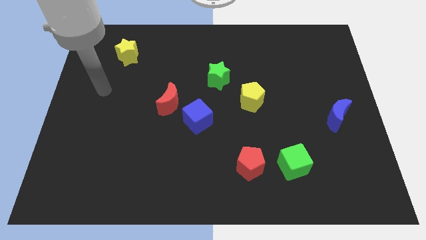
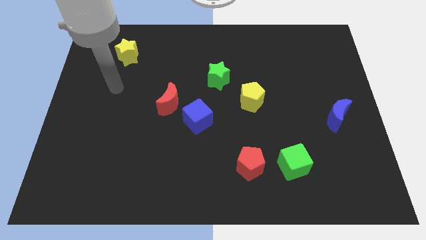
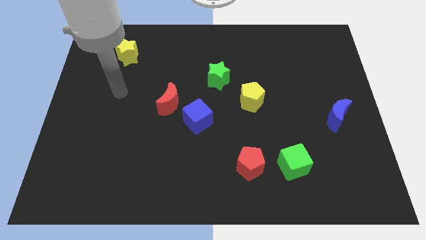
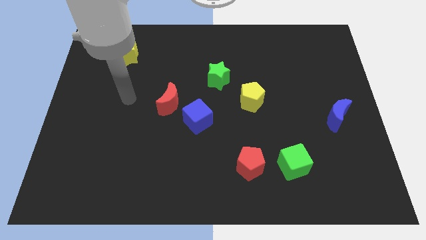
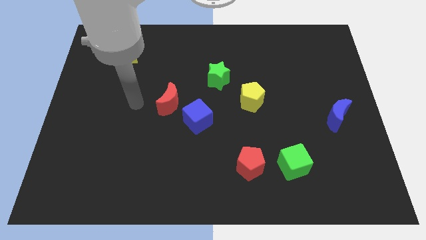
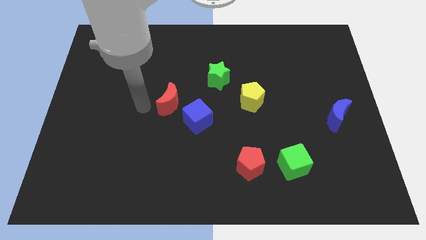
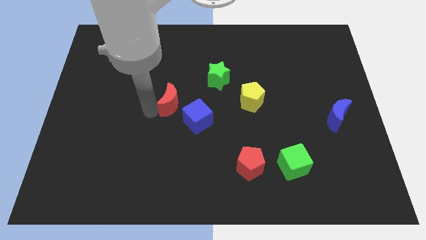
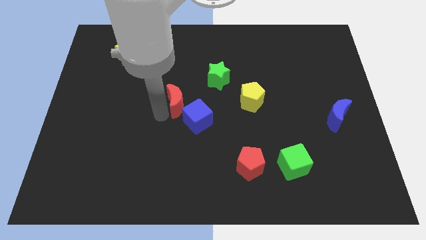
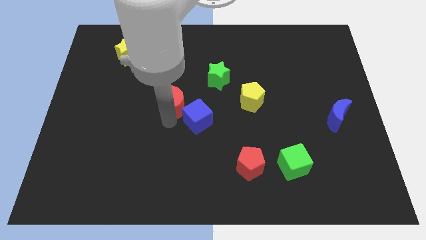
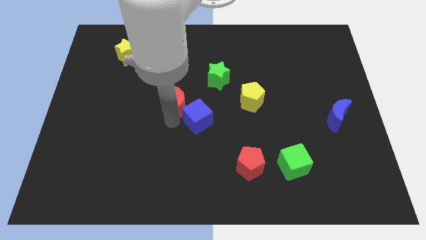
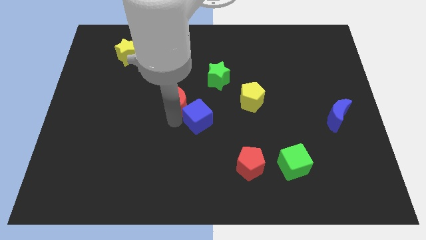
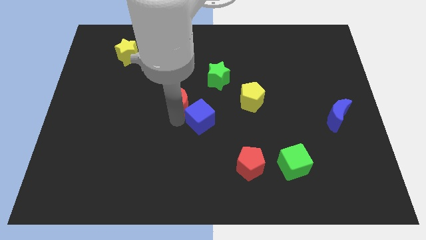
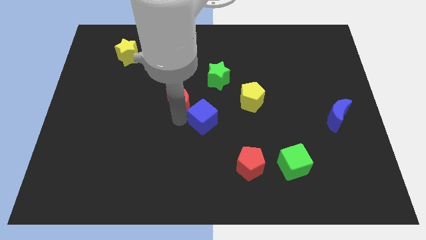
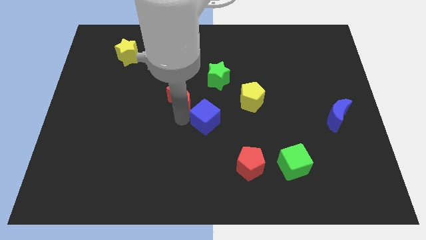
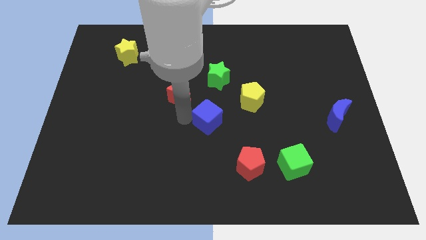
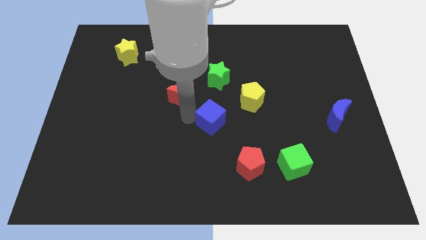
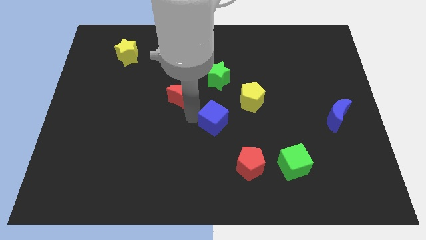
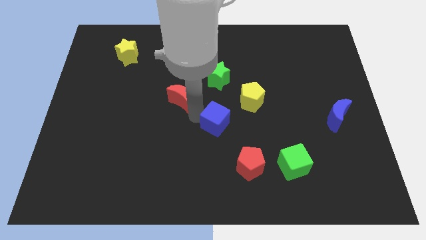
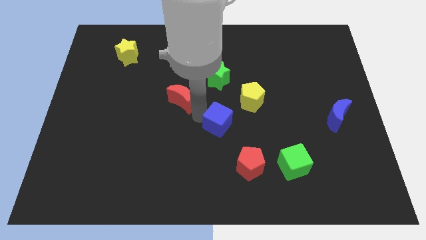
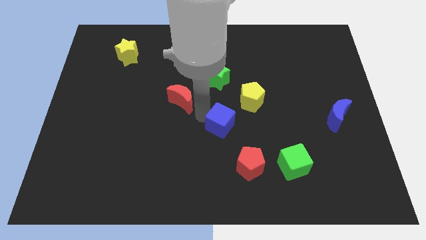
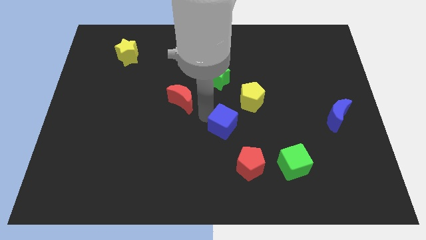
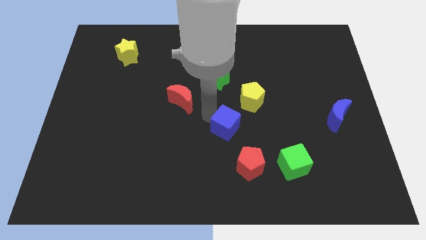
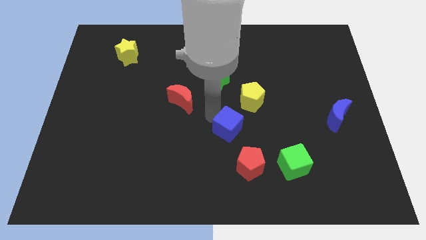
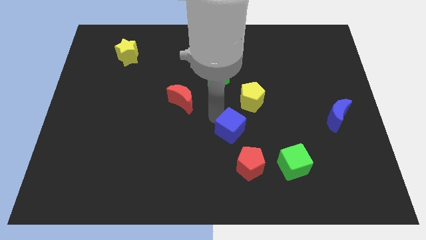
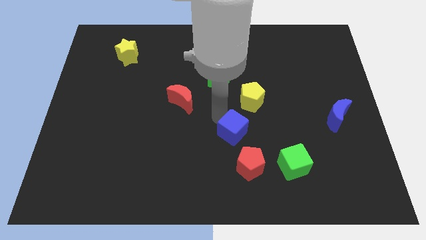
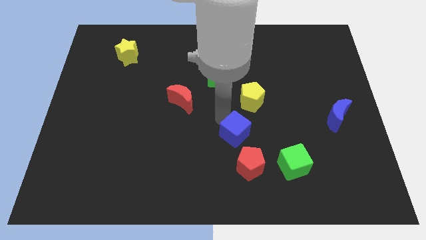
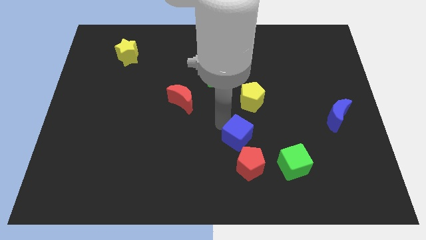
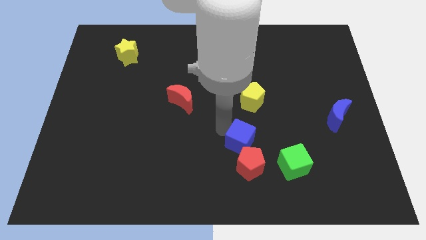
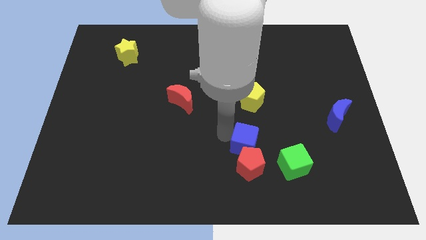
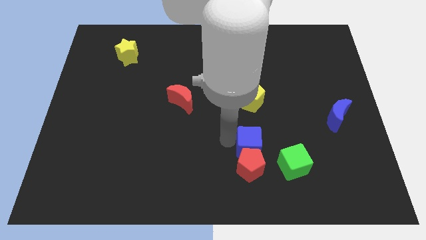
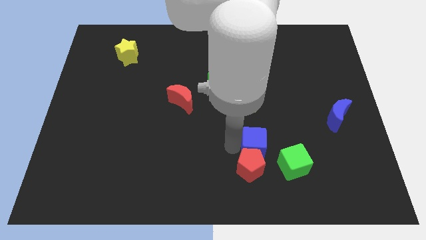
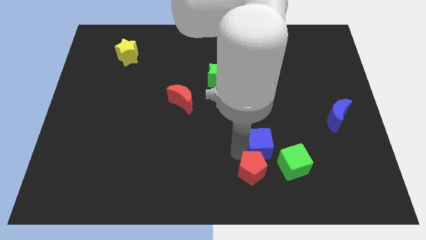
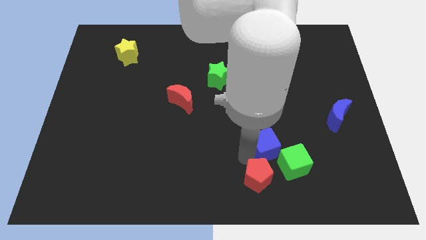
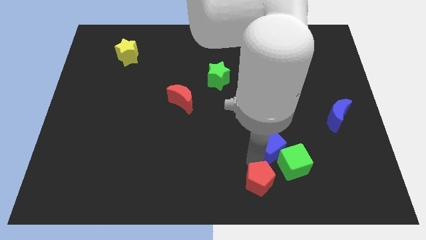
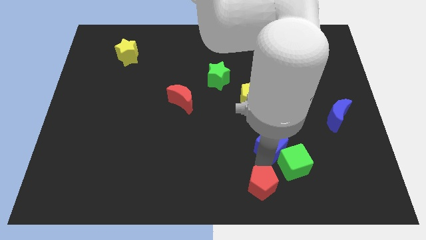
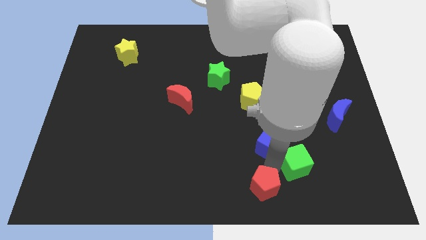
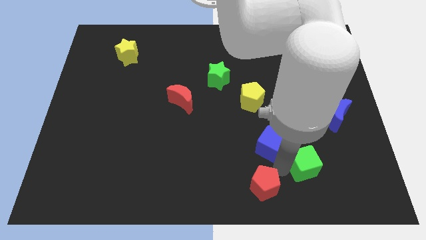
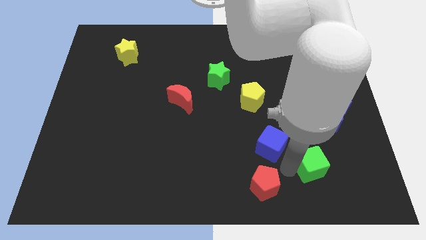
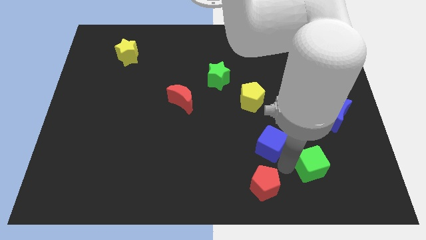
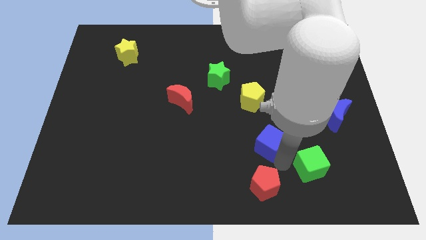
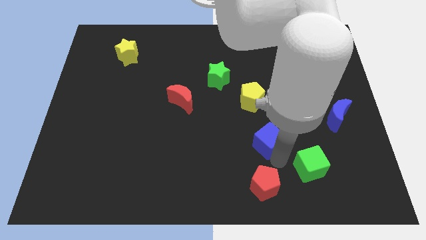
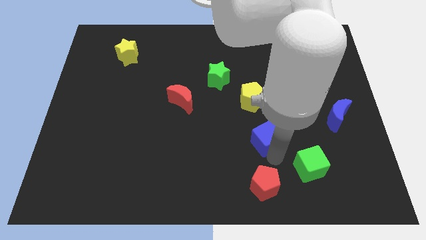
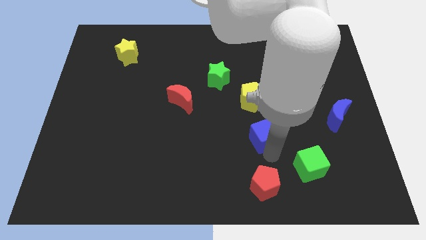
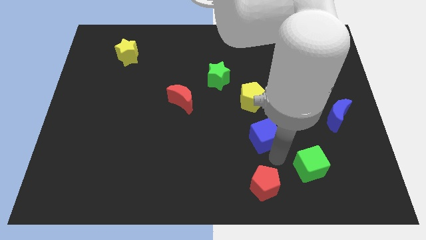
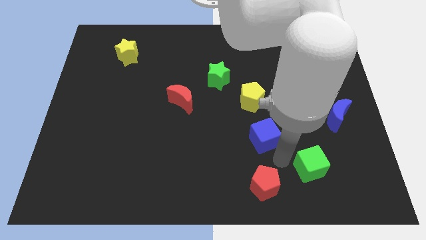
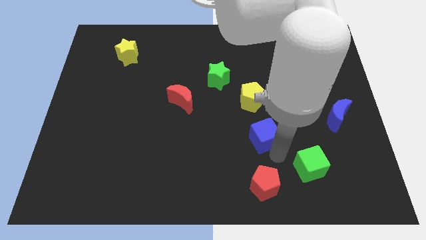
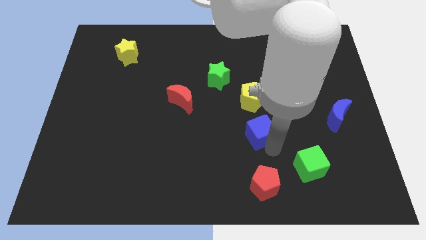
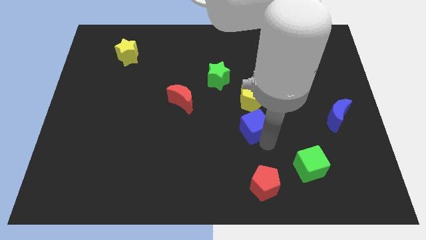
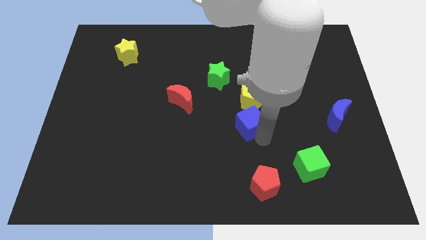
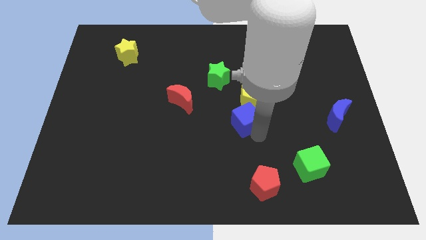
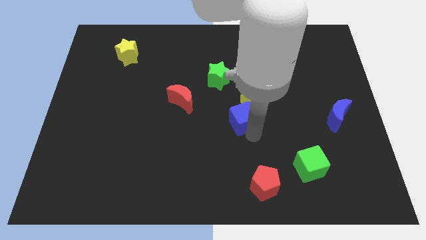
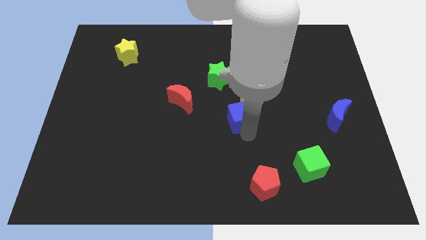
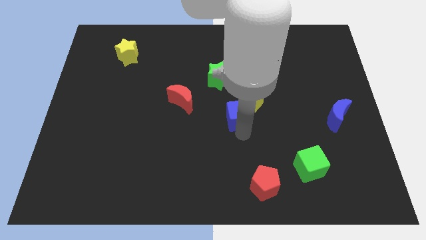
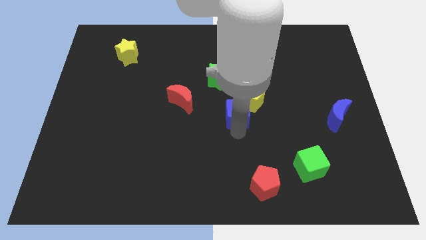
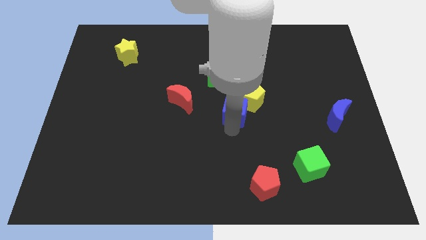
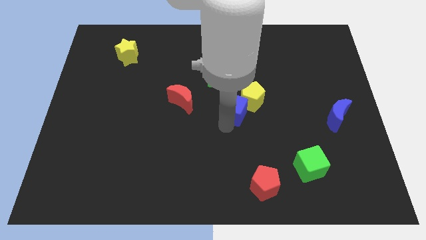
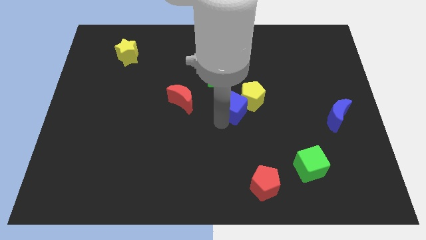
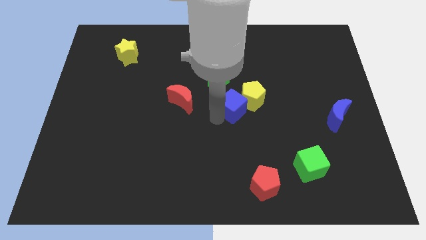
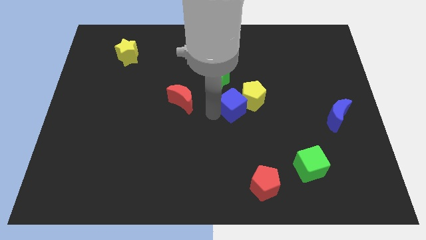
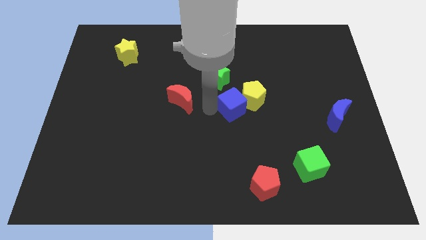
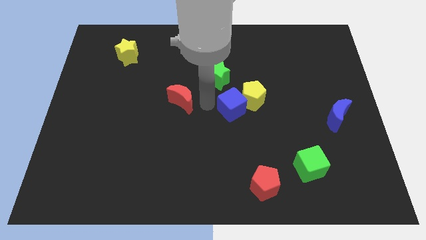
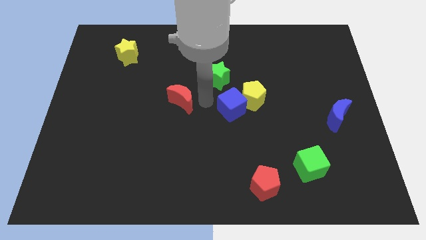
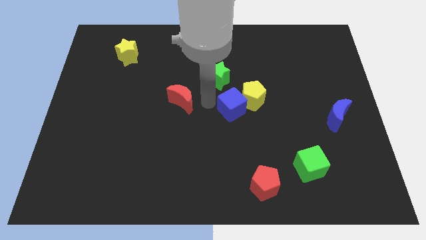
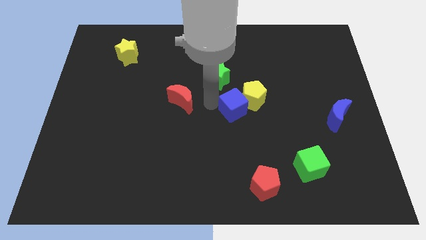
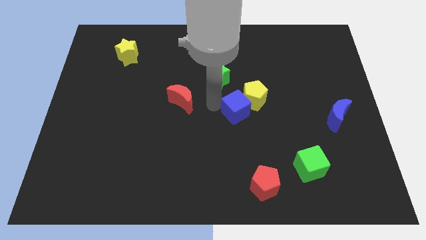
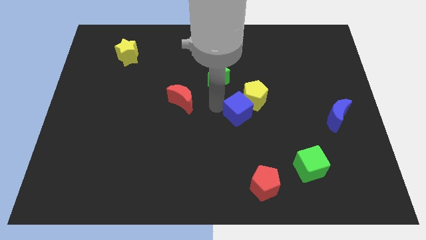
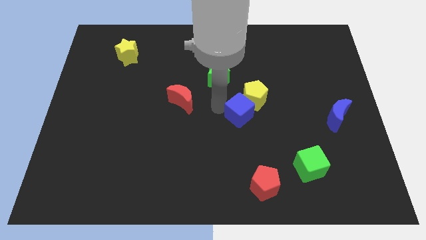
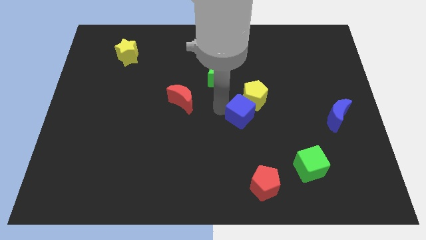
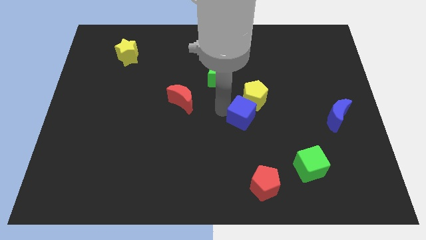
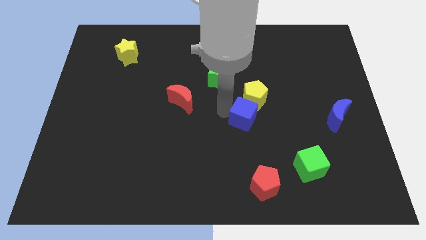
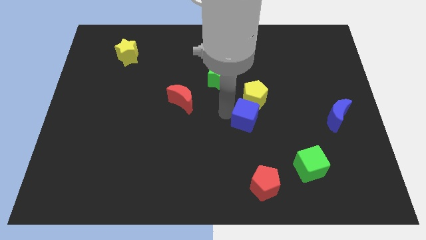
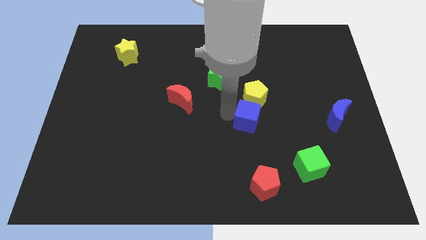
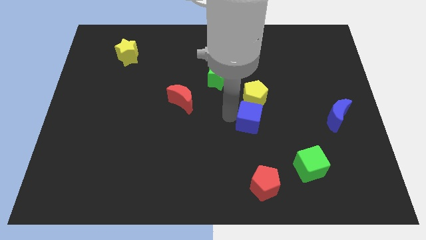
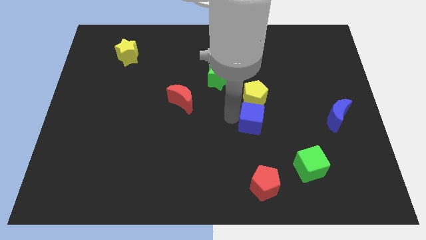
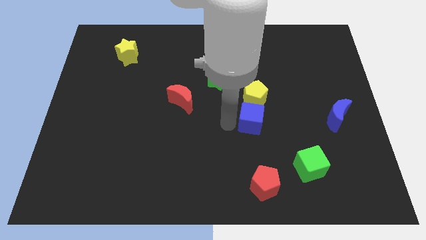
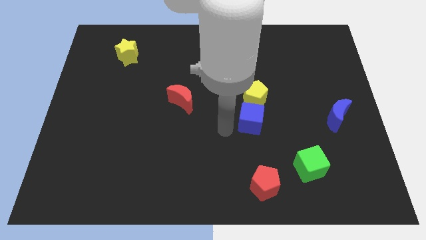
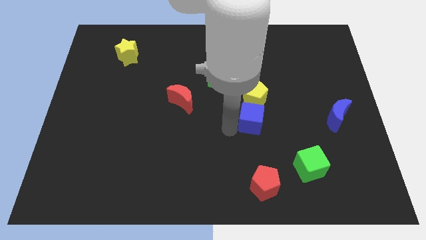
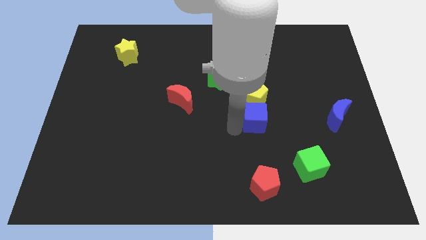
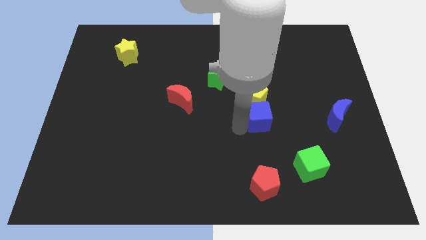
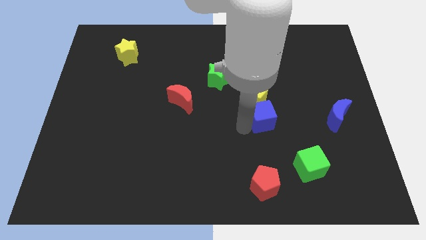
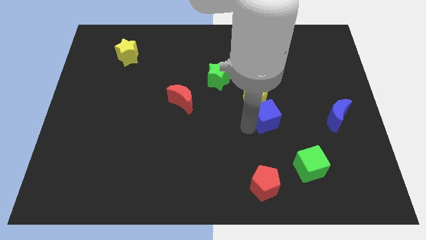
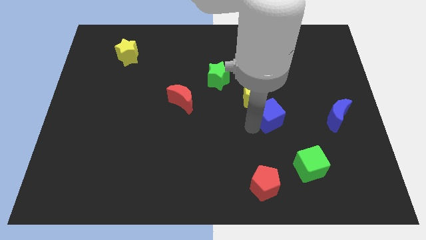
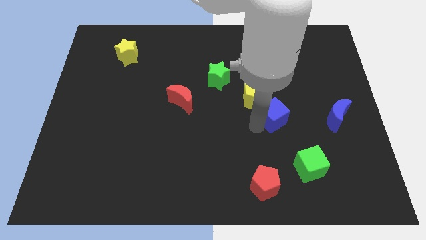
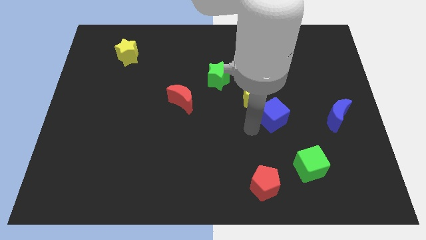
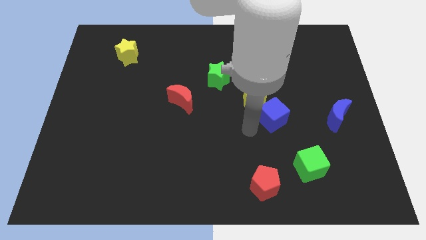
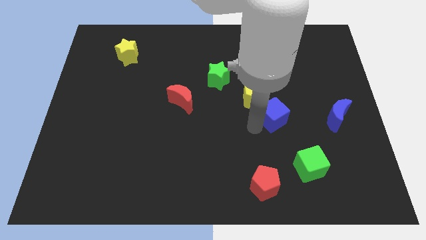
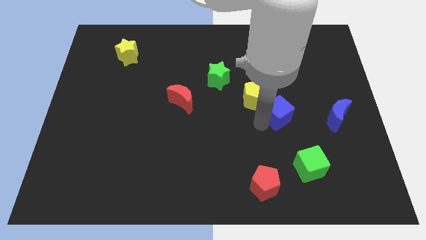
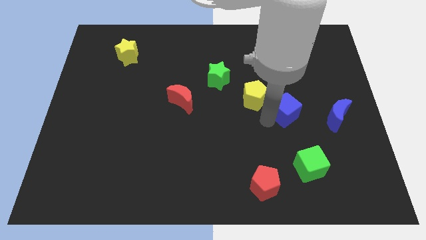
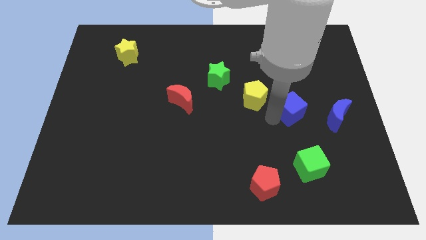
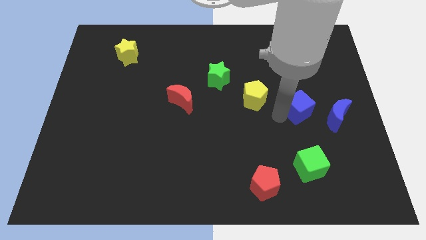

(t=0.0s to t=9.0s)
move the blue cube to the top left side of the blue moon
